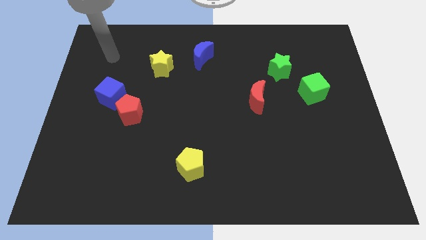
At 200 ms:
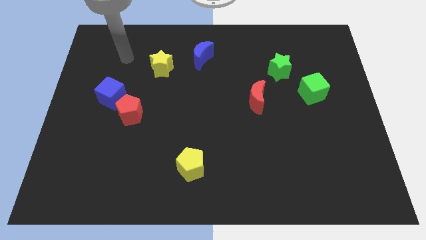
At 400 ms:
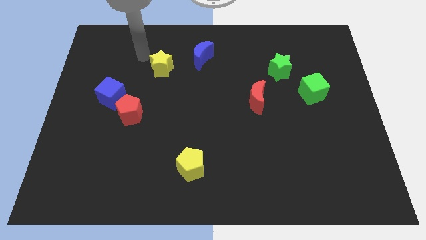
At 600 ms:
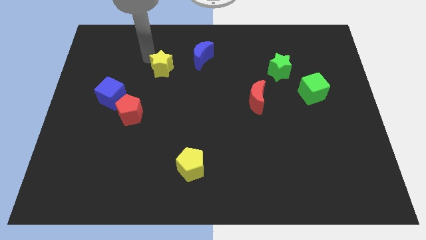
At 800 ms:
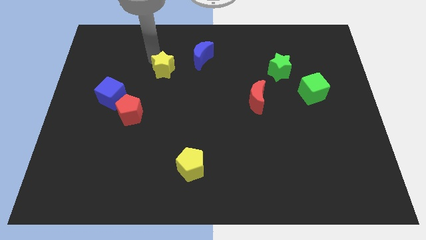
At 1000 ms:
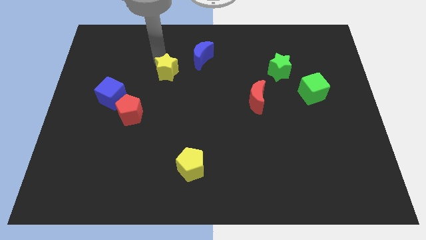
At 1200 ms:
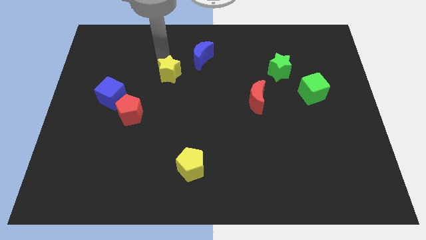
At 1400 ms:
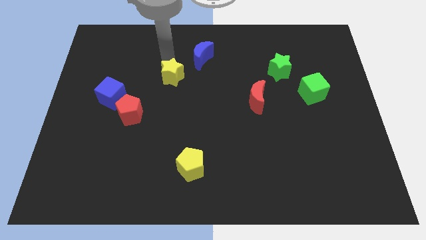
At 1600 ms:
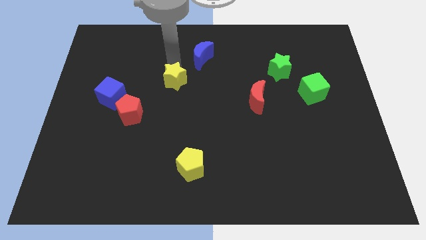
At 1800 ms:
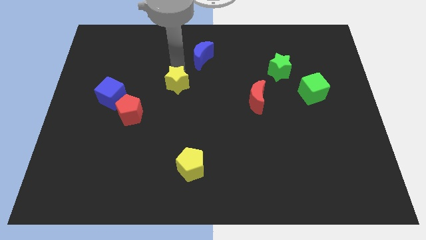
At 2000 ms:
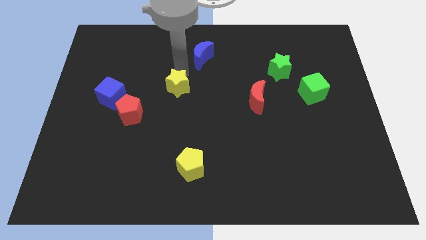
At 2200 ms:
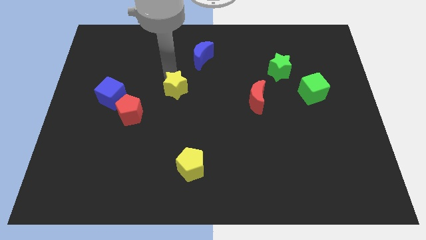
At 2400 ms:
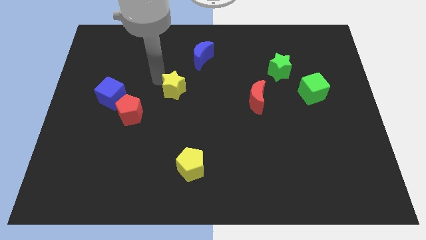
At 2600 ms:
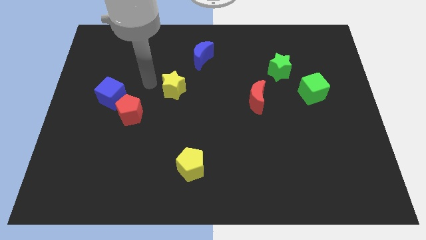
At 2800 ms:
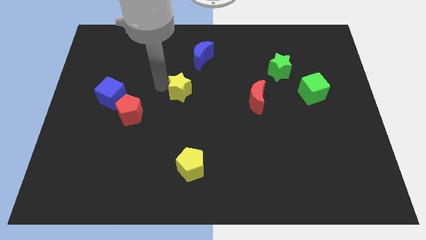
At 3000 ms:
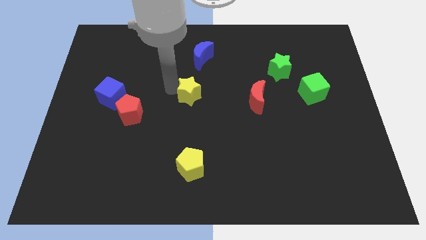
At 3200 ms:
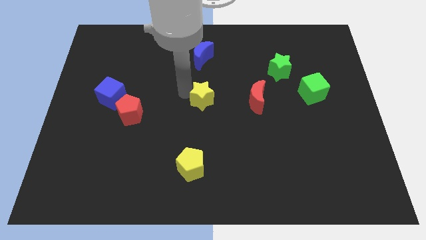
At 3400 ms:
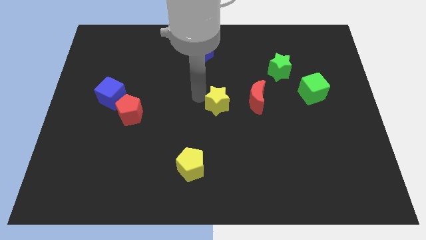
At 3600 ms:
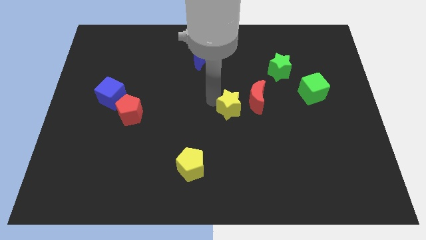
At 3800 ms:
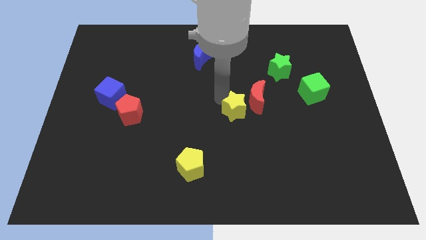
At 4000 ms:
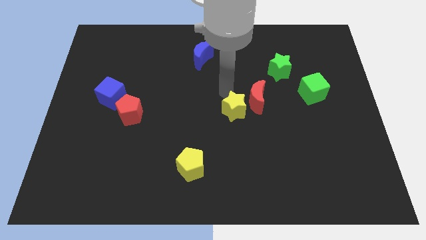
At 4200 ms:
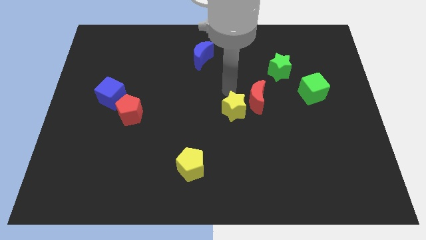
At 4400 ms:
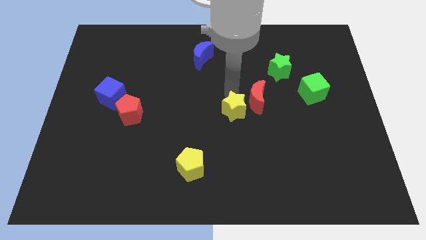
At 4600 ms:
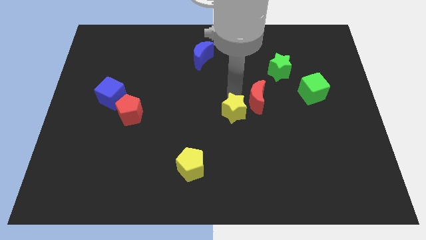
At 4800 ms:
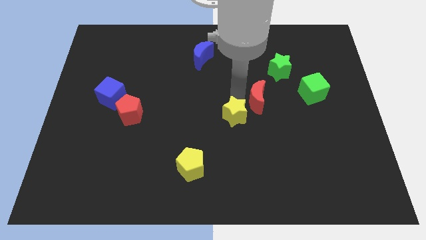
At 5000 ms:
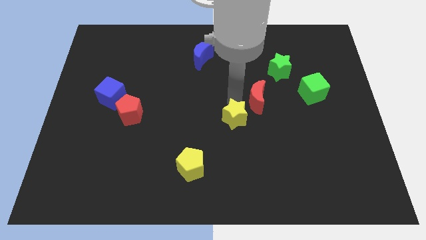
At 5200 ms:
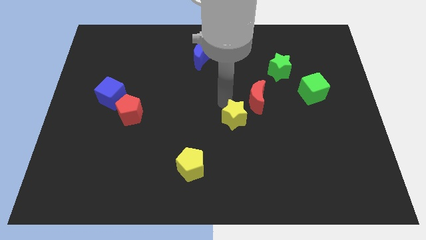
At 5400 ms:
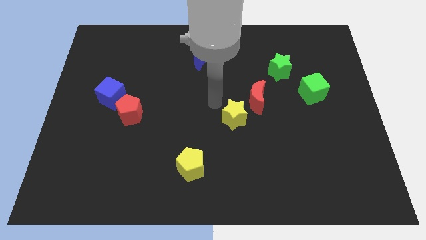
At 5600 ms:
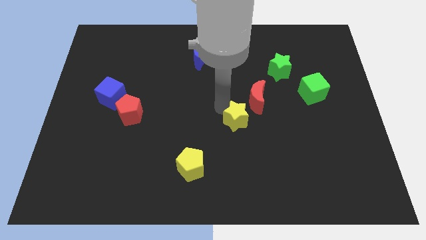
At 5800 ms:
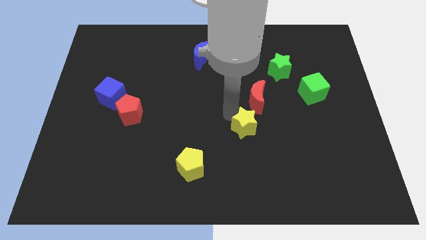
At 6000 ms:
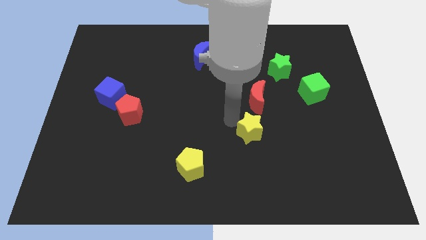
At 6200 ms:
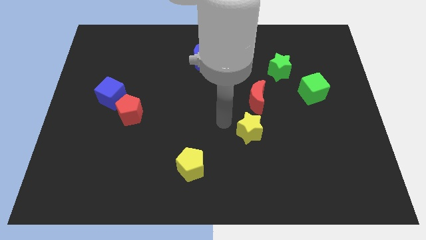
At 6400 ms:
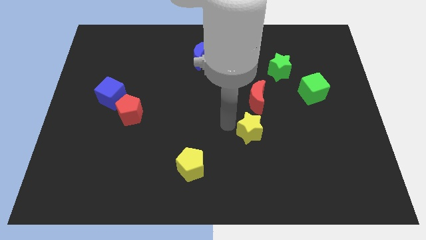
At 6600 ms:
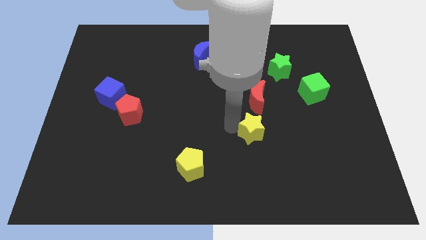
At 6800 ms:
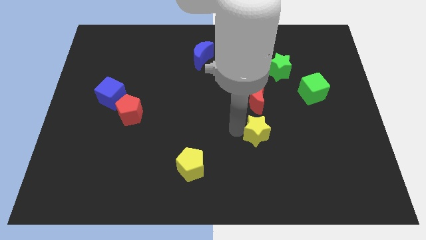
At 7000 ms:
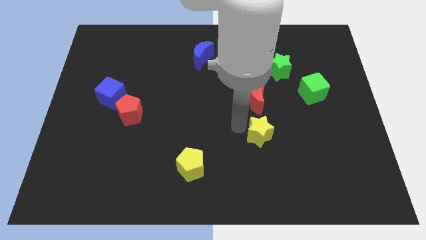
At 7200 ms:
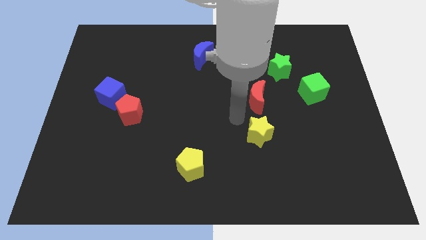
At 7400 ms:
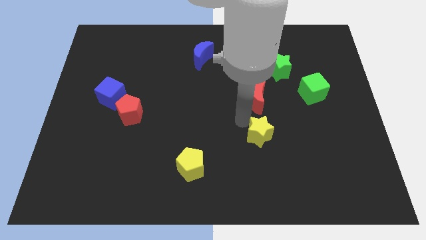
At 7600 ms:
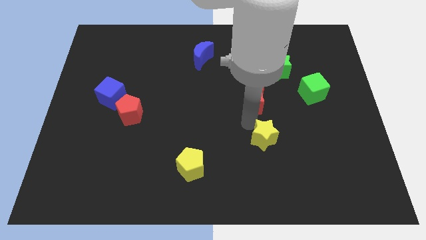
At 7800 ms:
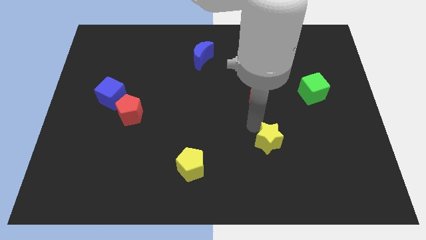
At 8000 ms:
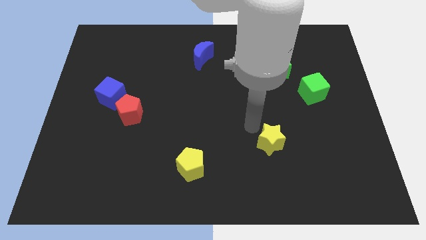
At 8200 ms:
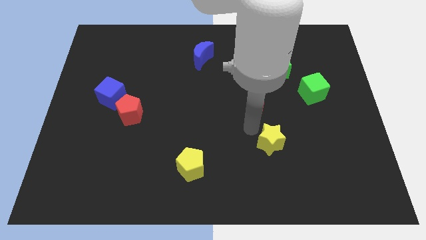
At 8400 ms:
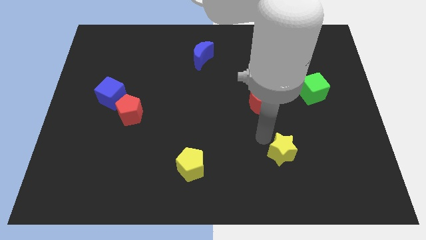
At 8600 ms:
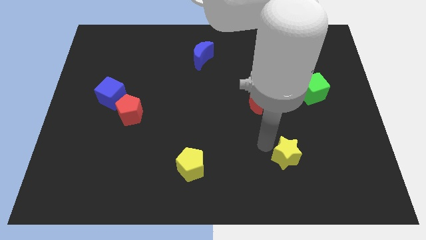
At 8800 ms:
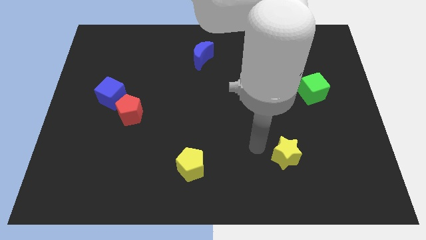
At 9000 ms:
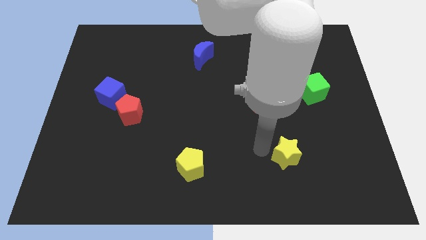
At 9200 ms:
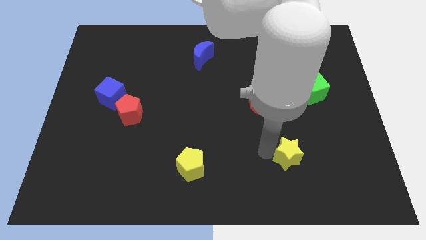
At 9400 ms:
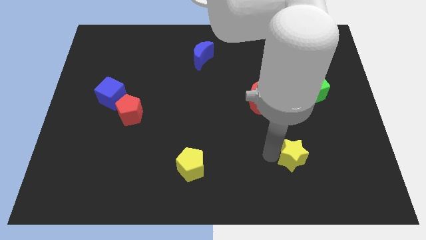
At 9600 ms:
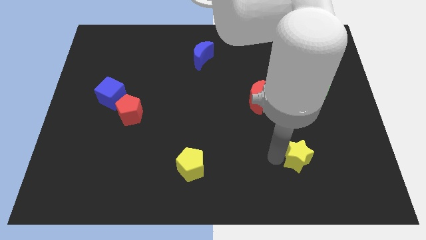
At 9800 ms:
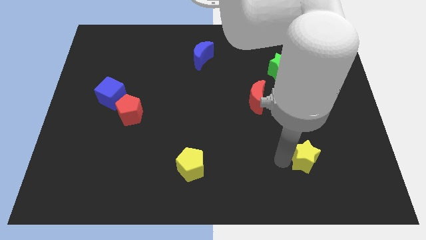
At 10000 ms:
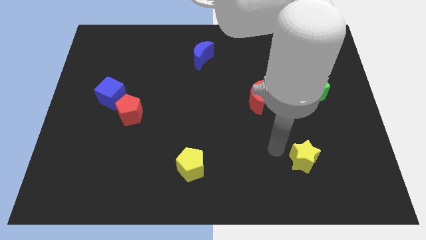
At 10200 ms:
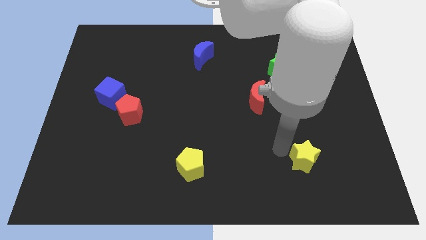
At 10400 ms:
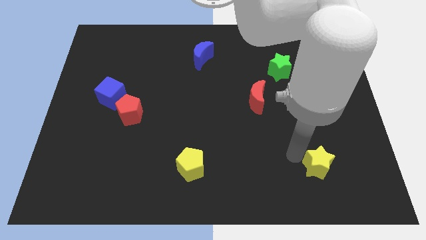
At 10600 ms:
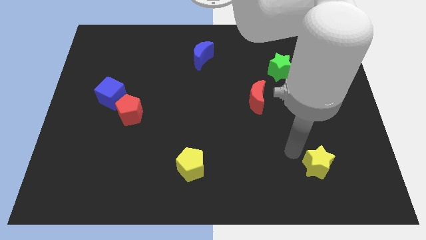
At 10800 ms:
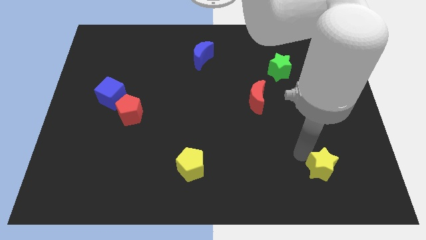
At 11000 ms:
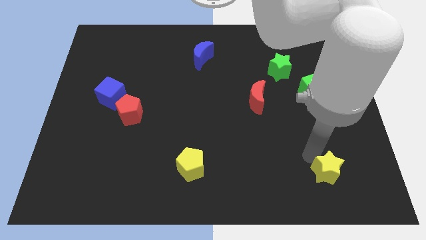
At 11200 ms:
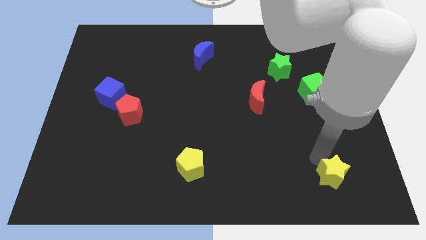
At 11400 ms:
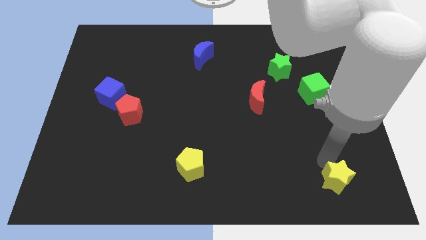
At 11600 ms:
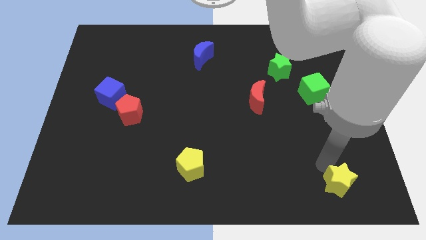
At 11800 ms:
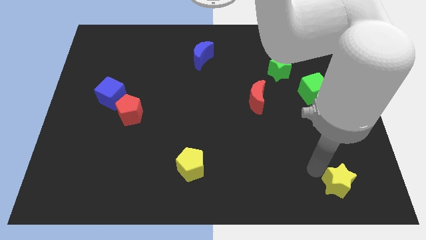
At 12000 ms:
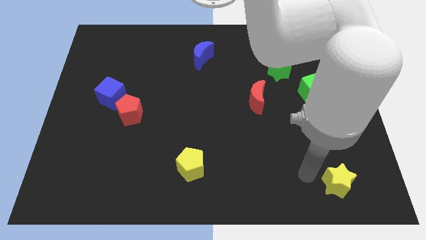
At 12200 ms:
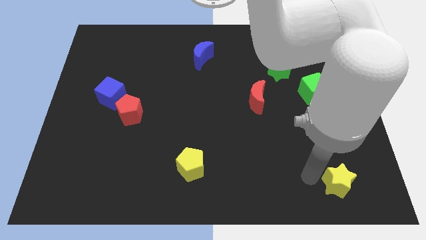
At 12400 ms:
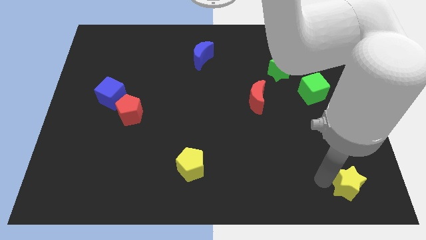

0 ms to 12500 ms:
push the yellow star to the bottom right corner

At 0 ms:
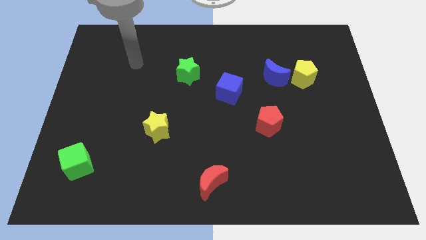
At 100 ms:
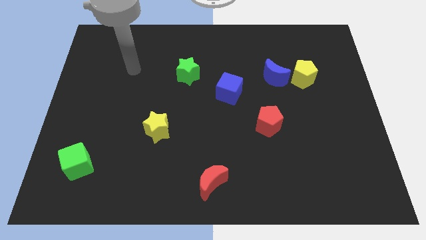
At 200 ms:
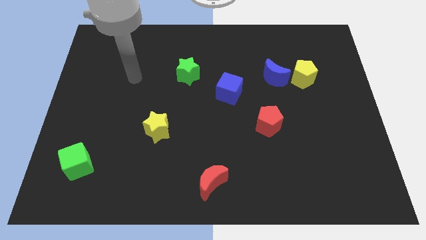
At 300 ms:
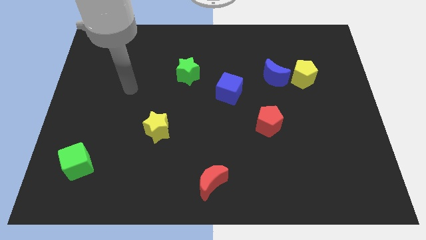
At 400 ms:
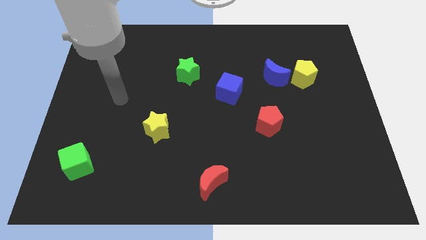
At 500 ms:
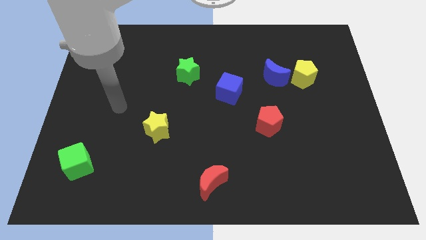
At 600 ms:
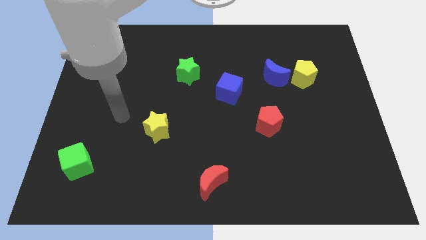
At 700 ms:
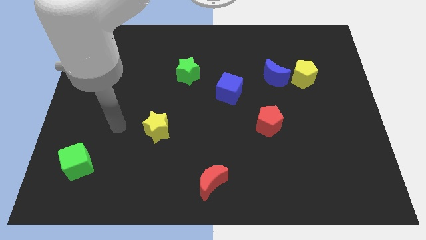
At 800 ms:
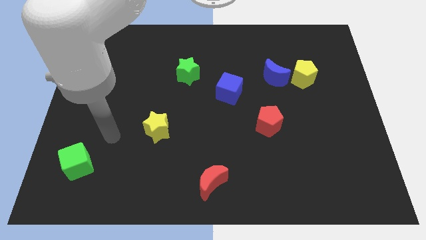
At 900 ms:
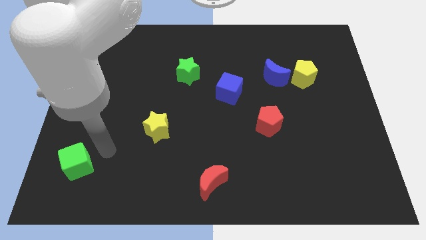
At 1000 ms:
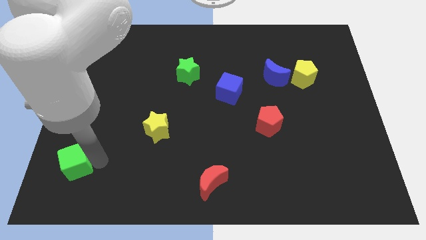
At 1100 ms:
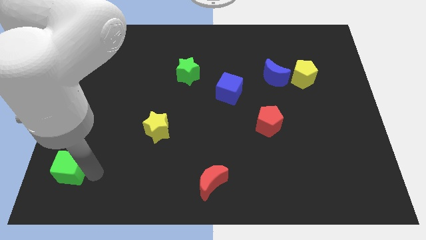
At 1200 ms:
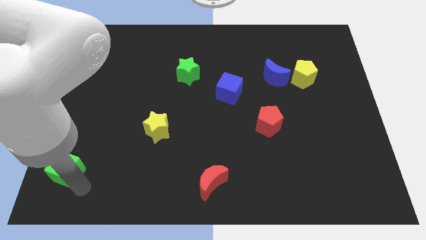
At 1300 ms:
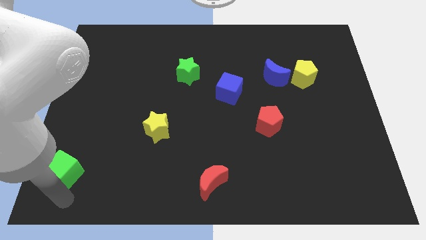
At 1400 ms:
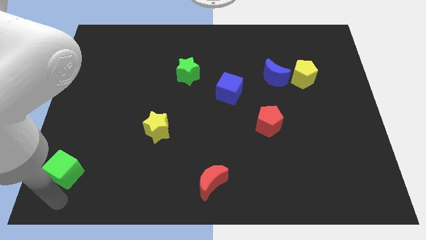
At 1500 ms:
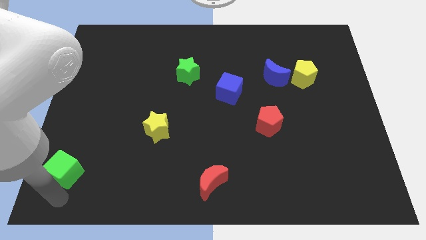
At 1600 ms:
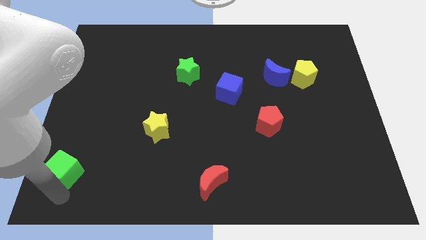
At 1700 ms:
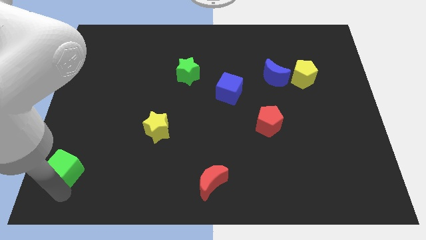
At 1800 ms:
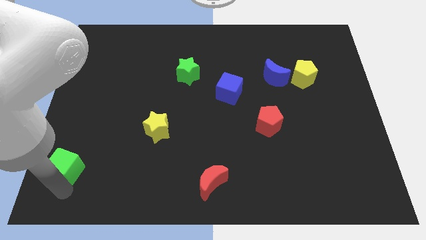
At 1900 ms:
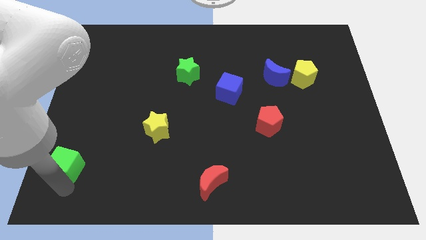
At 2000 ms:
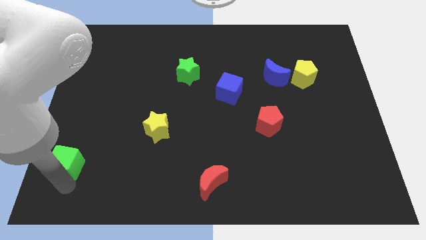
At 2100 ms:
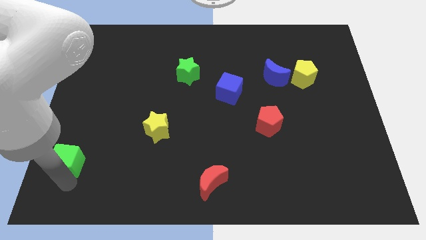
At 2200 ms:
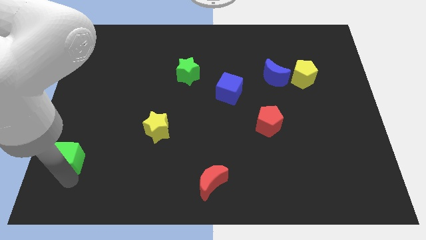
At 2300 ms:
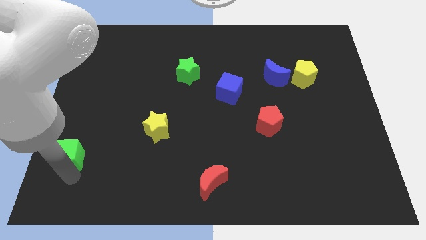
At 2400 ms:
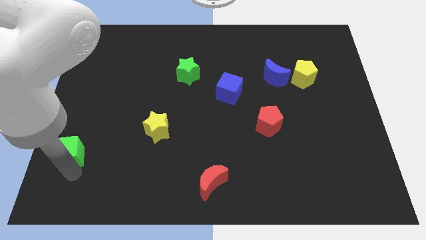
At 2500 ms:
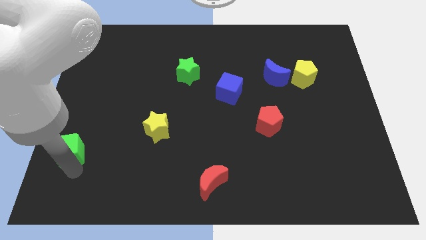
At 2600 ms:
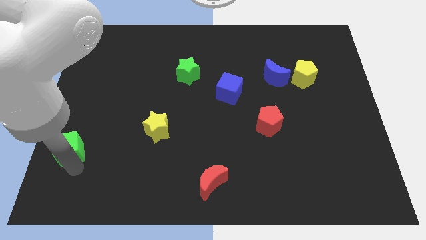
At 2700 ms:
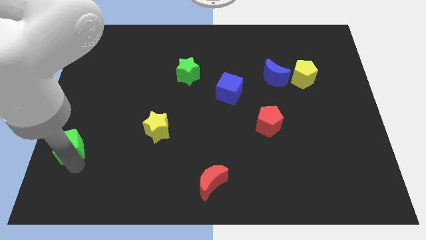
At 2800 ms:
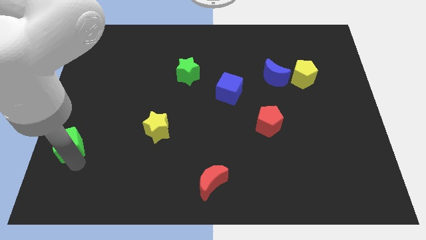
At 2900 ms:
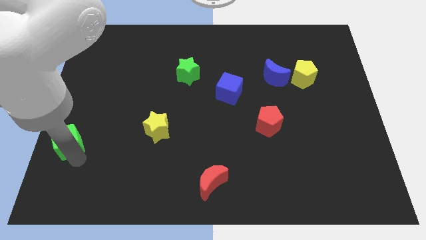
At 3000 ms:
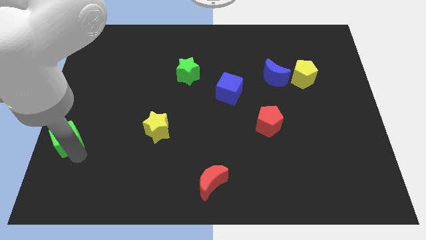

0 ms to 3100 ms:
put the green cube to the center left
